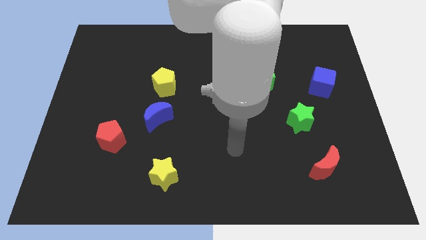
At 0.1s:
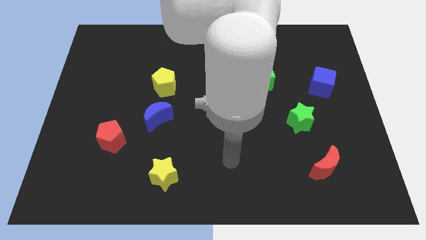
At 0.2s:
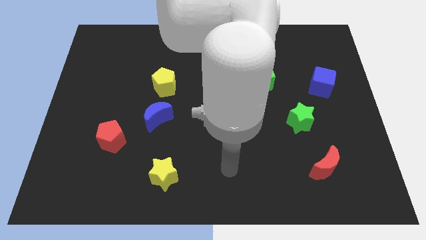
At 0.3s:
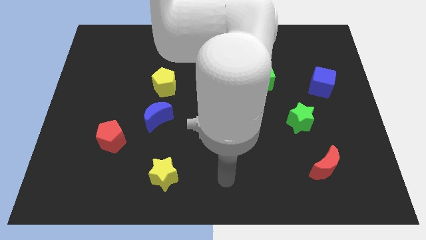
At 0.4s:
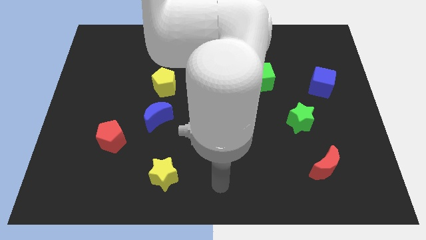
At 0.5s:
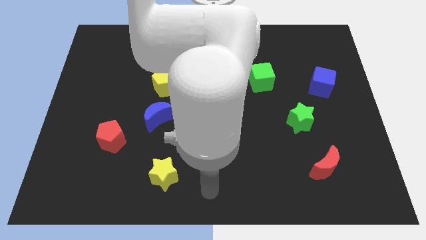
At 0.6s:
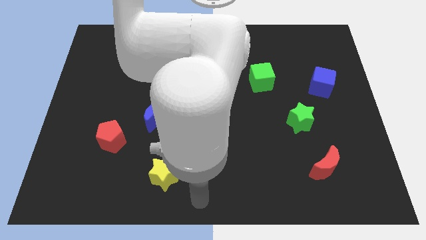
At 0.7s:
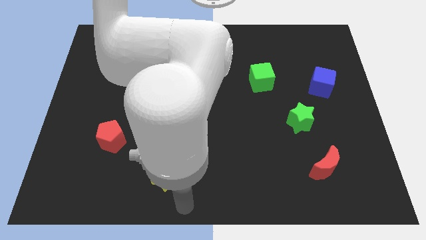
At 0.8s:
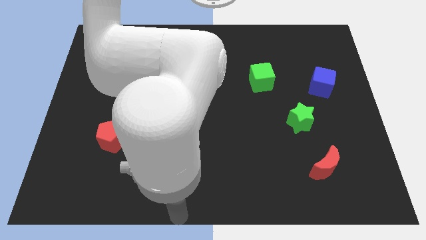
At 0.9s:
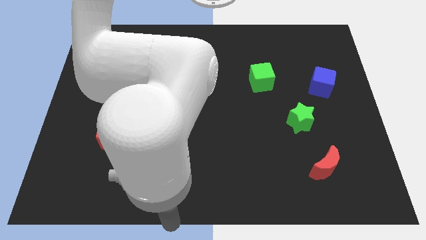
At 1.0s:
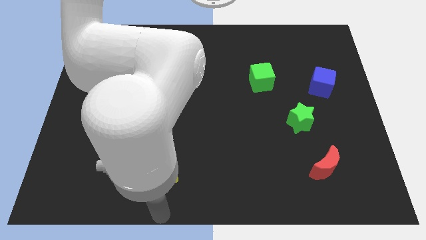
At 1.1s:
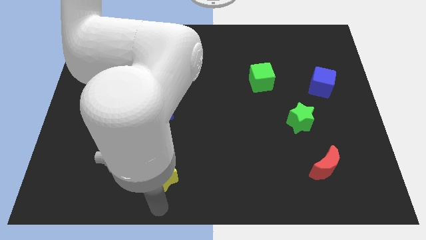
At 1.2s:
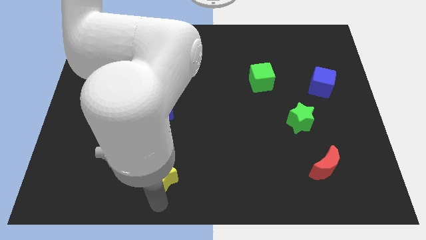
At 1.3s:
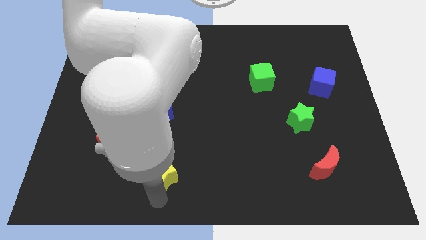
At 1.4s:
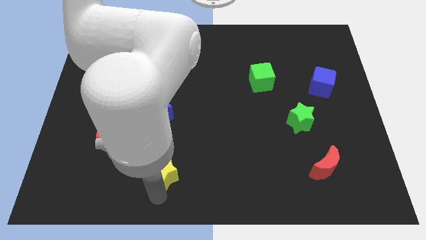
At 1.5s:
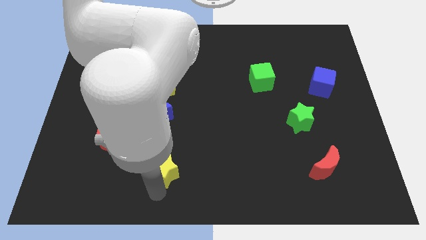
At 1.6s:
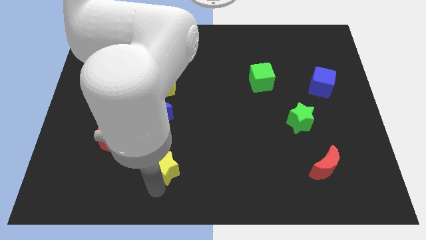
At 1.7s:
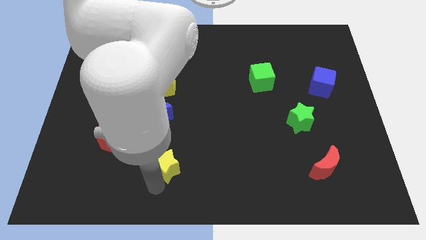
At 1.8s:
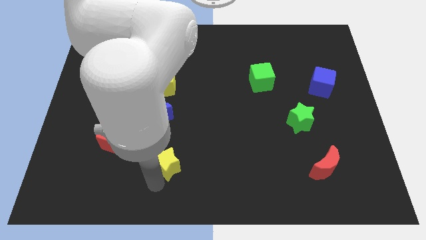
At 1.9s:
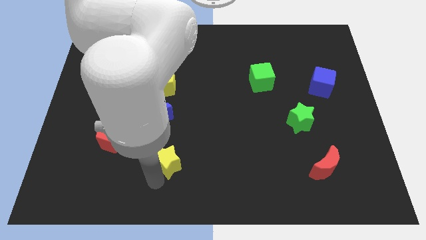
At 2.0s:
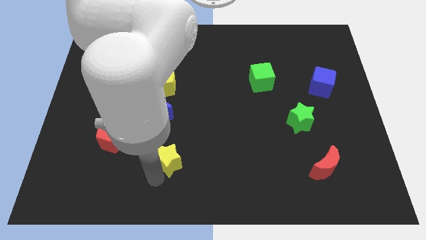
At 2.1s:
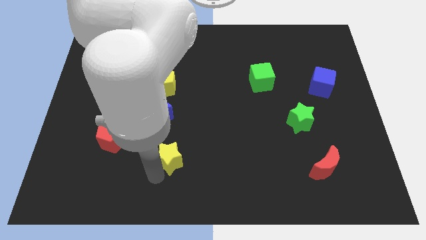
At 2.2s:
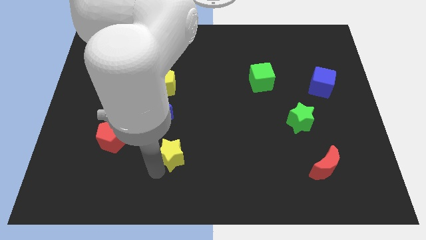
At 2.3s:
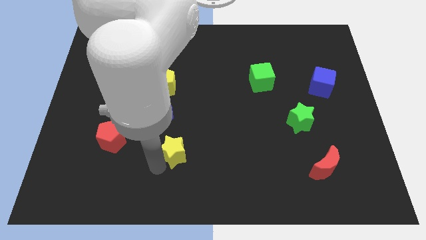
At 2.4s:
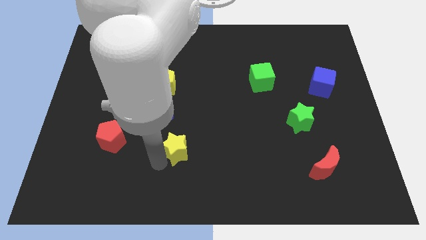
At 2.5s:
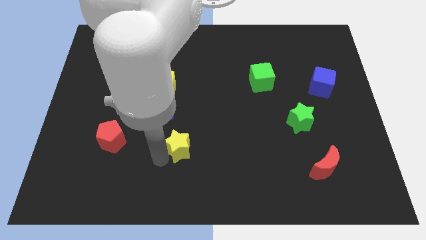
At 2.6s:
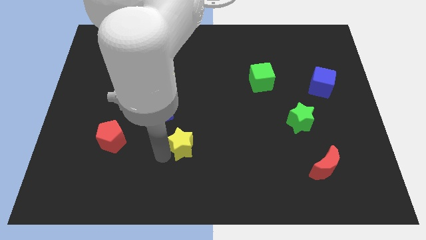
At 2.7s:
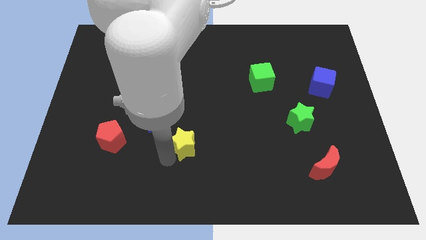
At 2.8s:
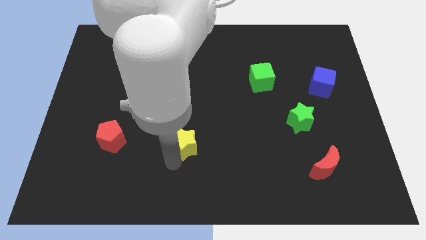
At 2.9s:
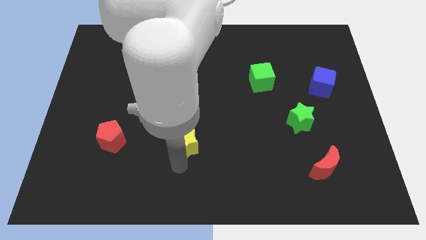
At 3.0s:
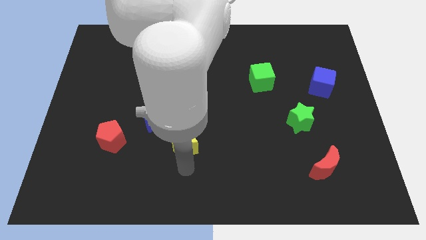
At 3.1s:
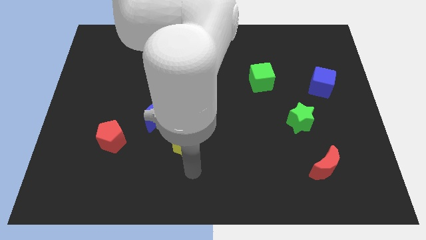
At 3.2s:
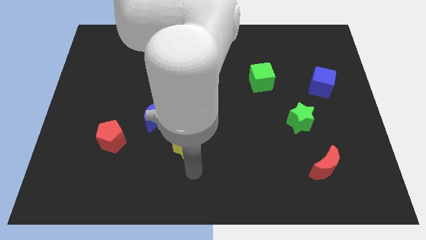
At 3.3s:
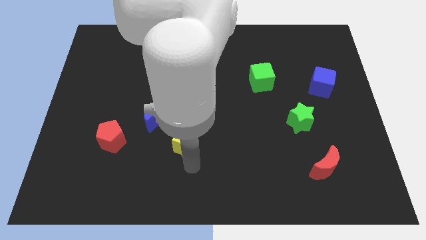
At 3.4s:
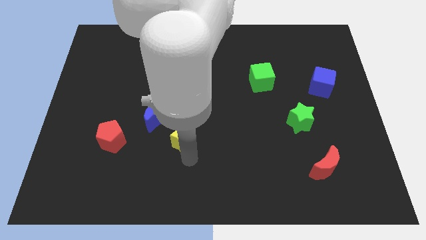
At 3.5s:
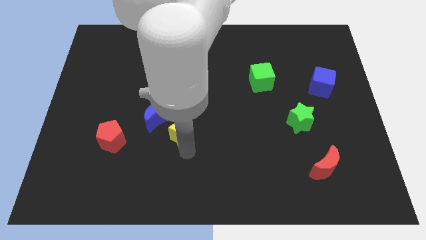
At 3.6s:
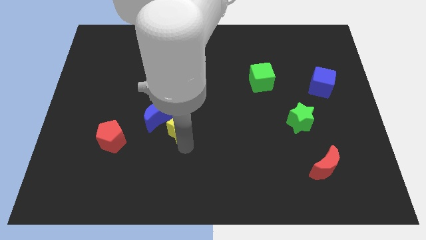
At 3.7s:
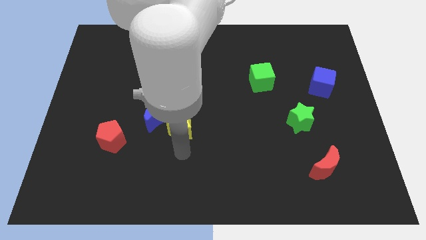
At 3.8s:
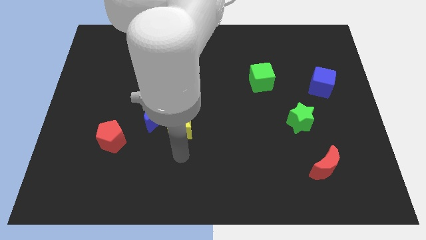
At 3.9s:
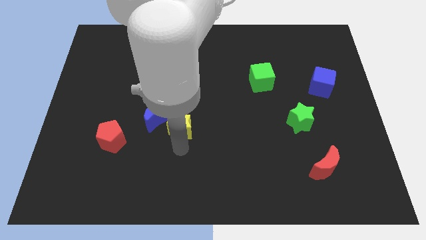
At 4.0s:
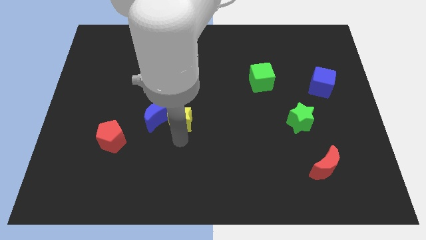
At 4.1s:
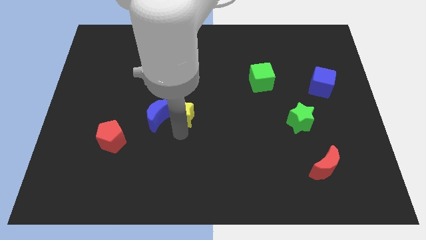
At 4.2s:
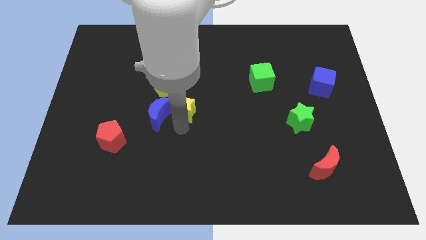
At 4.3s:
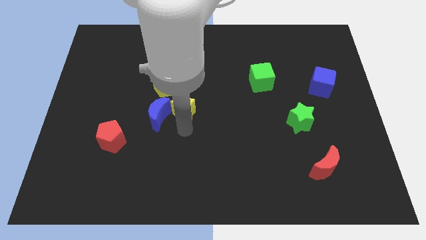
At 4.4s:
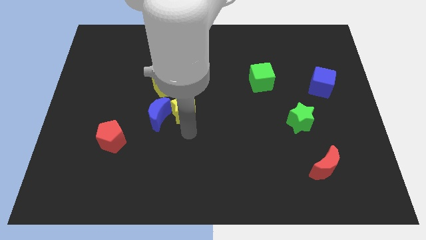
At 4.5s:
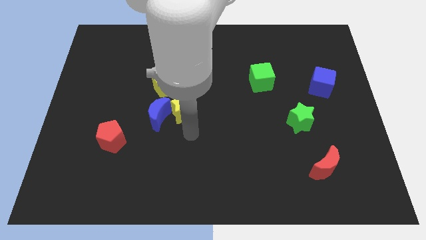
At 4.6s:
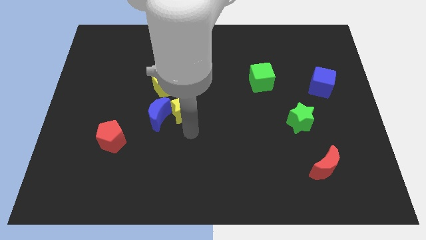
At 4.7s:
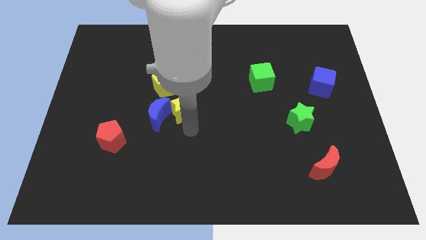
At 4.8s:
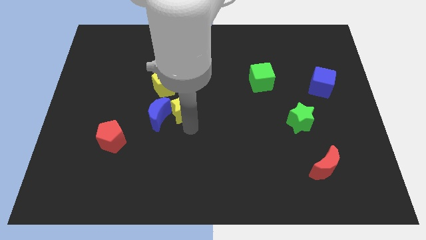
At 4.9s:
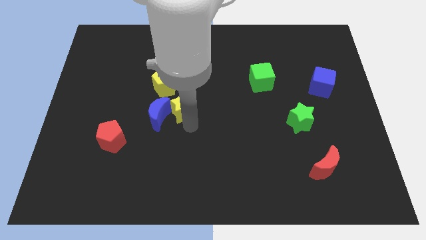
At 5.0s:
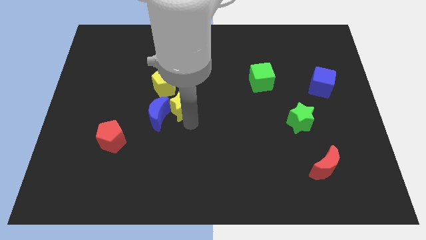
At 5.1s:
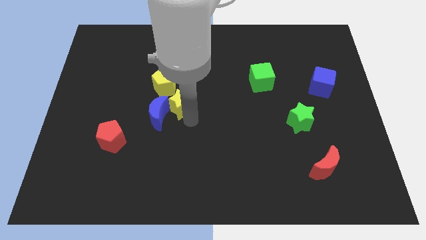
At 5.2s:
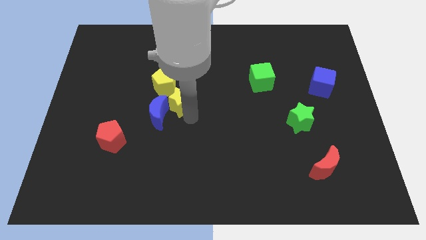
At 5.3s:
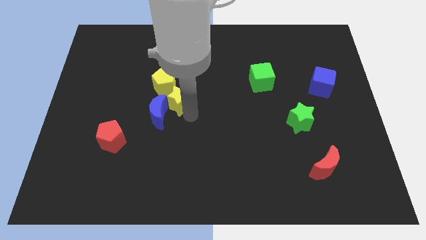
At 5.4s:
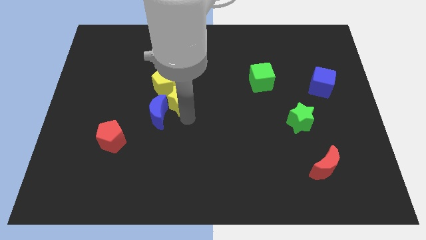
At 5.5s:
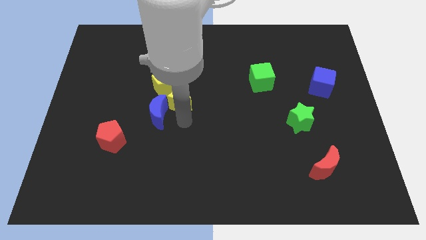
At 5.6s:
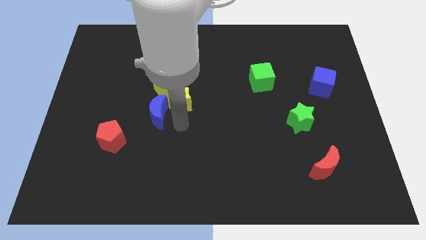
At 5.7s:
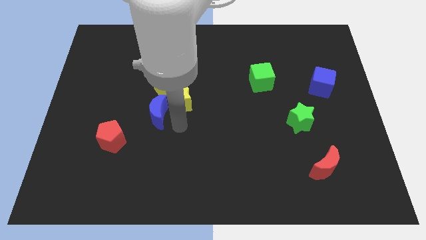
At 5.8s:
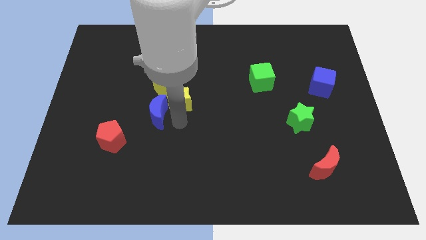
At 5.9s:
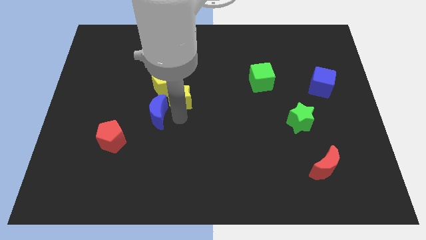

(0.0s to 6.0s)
slide the yellow star up

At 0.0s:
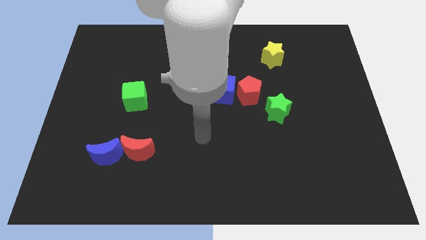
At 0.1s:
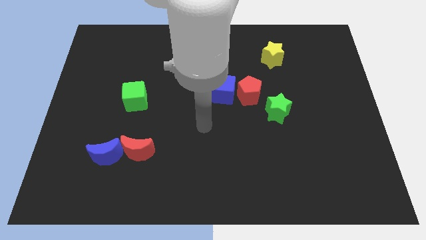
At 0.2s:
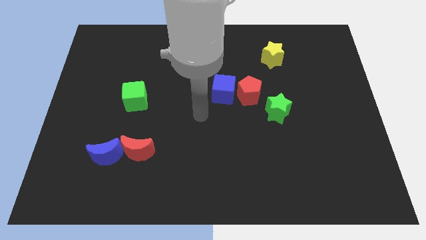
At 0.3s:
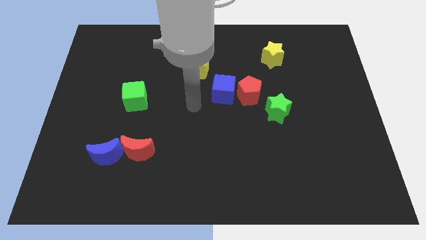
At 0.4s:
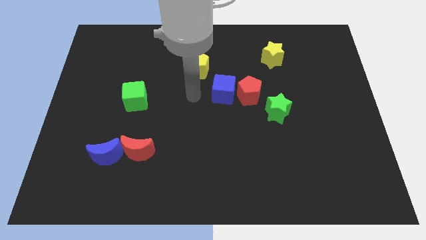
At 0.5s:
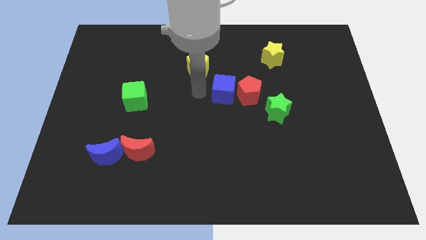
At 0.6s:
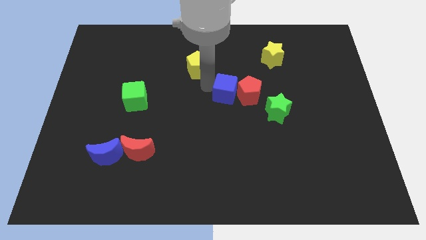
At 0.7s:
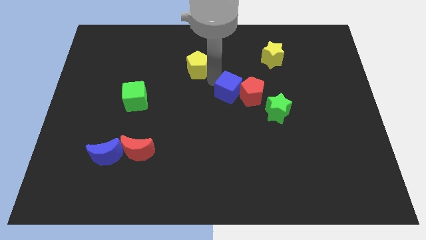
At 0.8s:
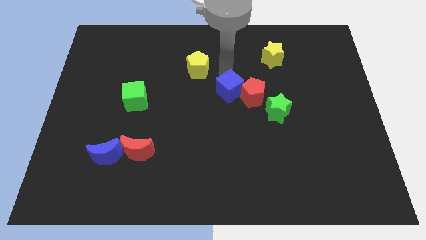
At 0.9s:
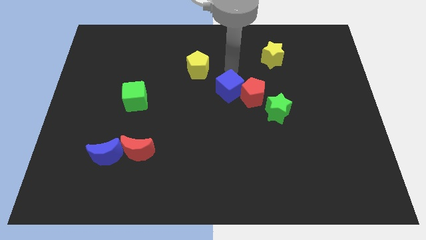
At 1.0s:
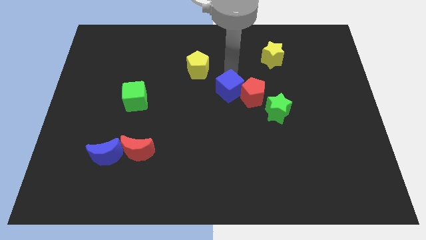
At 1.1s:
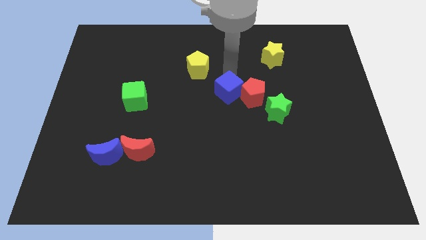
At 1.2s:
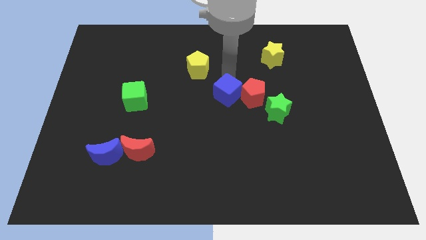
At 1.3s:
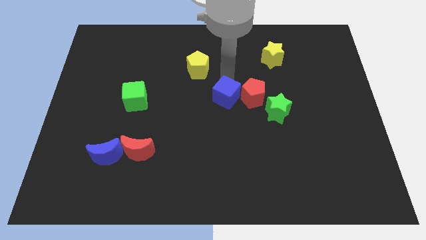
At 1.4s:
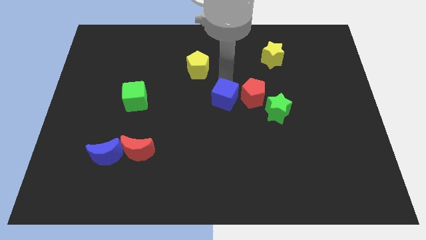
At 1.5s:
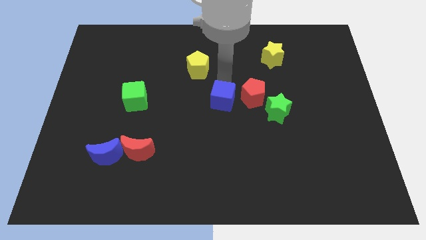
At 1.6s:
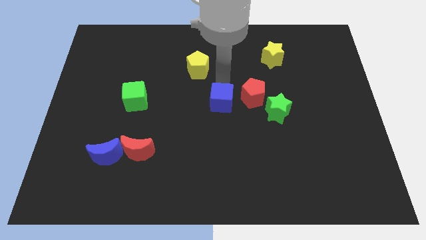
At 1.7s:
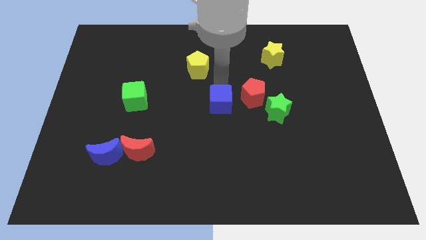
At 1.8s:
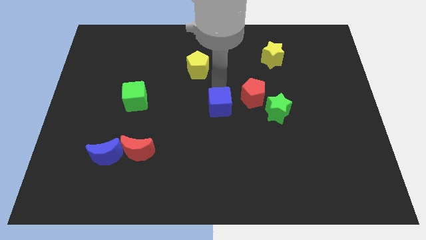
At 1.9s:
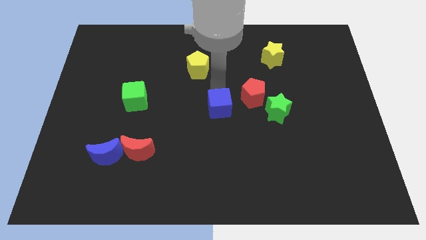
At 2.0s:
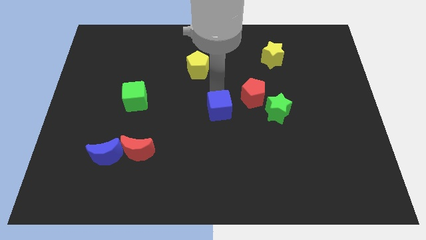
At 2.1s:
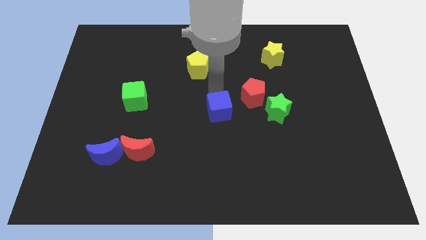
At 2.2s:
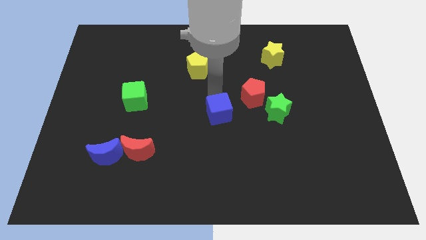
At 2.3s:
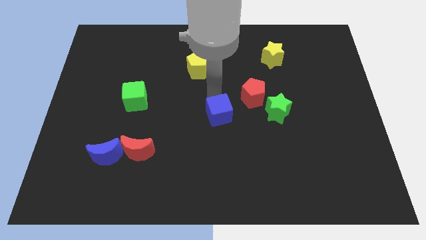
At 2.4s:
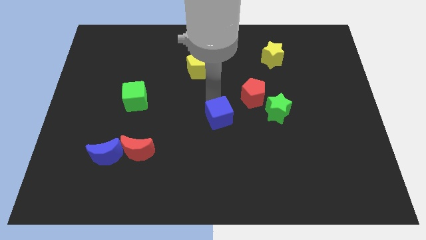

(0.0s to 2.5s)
slide the blue cube somewhat down
